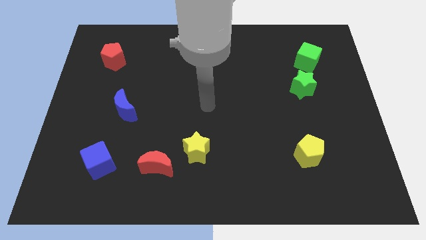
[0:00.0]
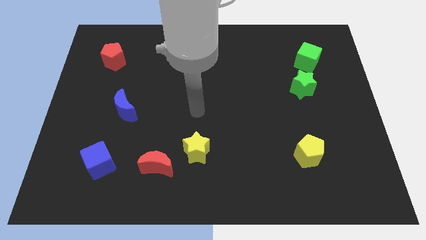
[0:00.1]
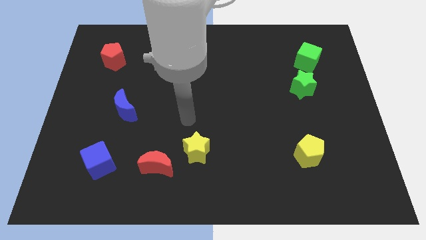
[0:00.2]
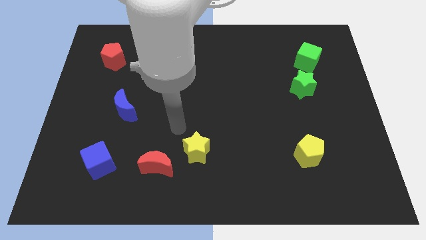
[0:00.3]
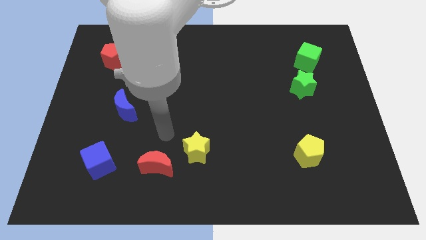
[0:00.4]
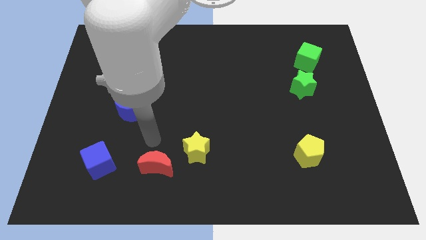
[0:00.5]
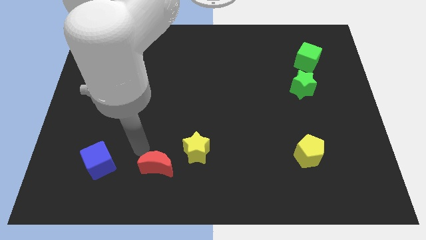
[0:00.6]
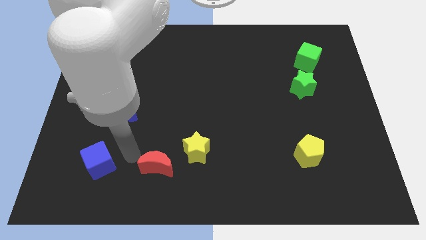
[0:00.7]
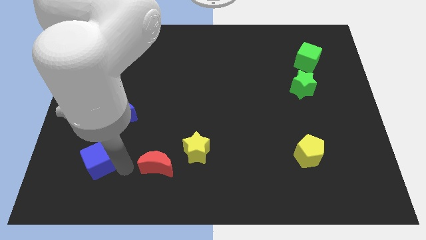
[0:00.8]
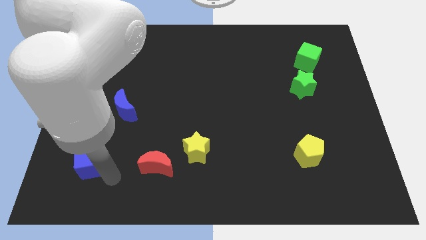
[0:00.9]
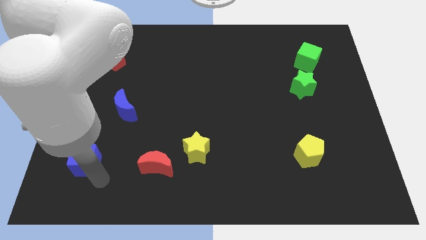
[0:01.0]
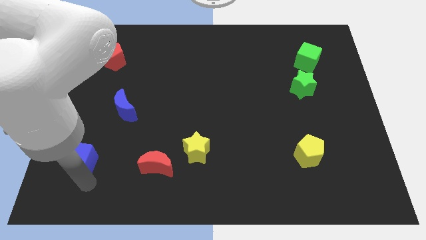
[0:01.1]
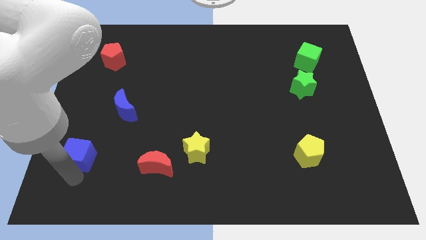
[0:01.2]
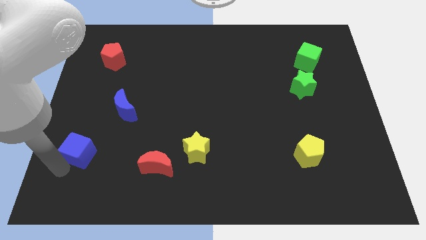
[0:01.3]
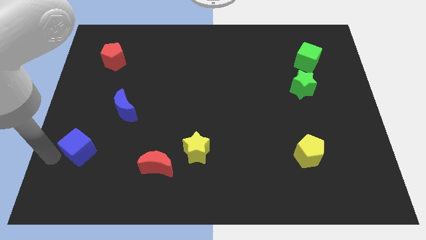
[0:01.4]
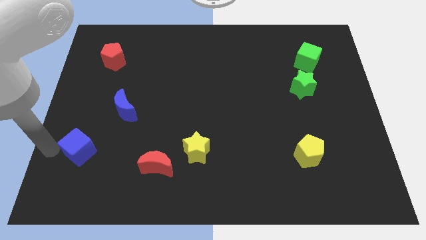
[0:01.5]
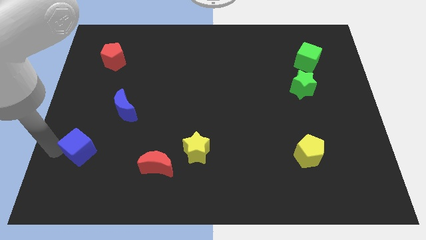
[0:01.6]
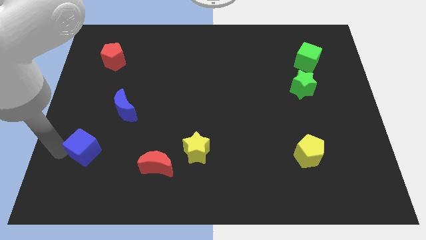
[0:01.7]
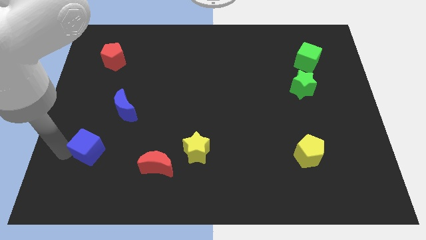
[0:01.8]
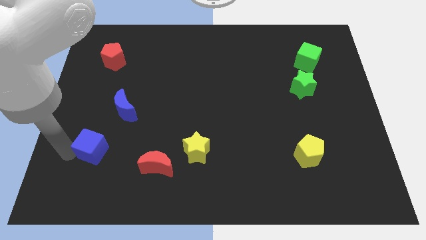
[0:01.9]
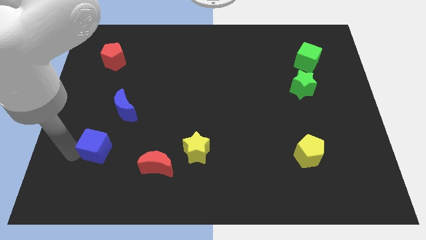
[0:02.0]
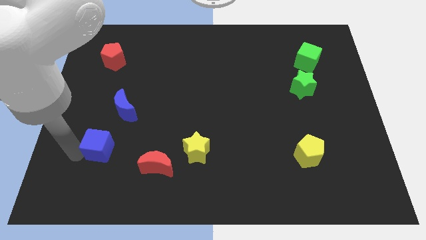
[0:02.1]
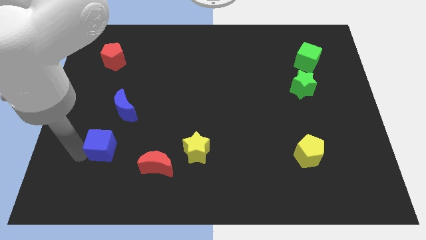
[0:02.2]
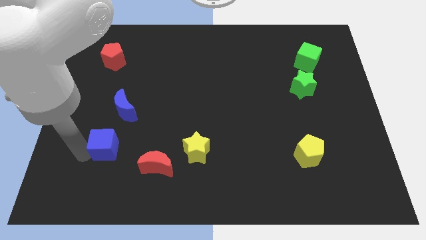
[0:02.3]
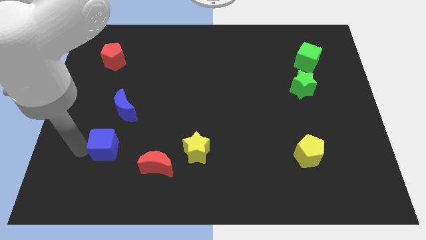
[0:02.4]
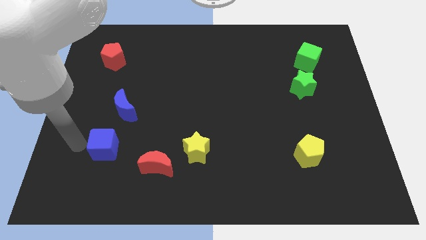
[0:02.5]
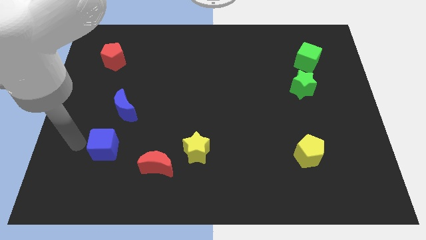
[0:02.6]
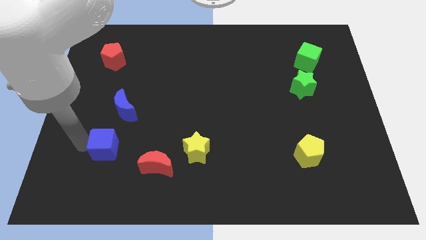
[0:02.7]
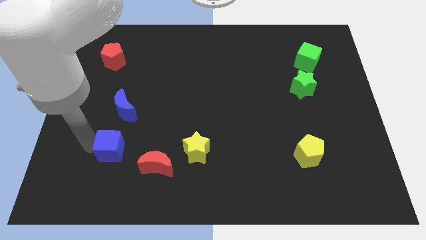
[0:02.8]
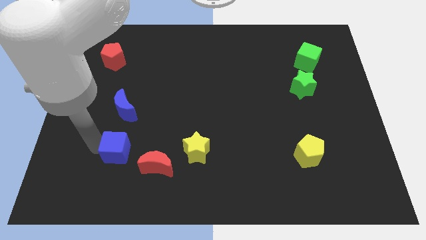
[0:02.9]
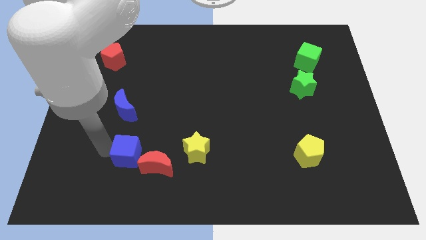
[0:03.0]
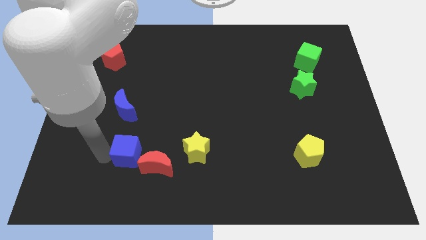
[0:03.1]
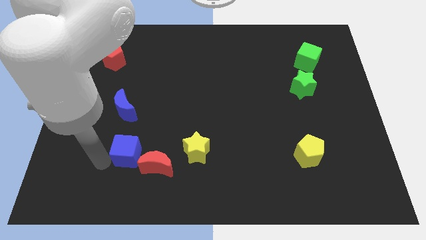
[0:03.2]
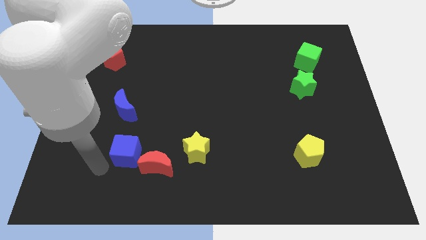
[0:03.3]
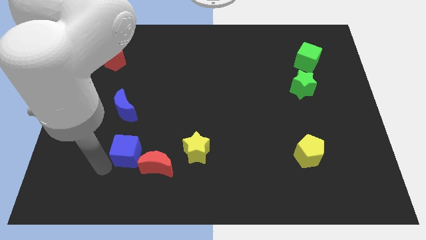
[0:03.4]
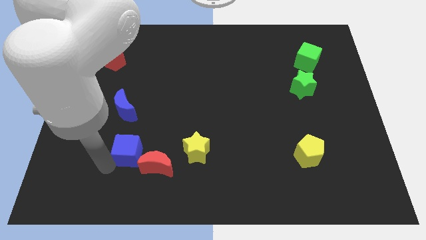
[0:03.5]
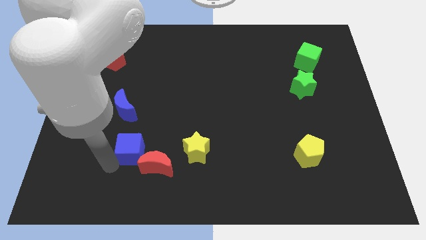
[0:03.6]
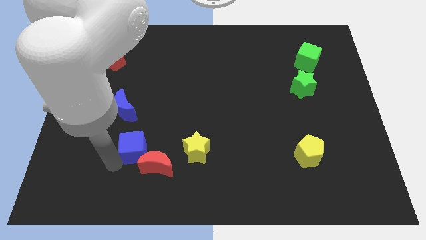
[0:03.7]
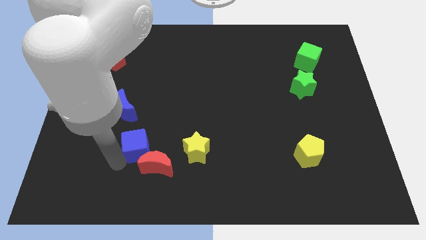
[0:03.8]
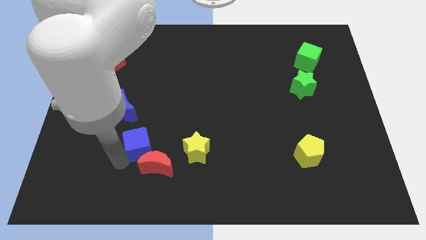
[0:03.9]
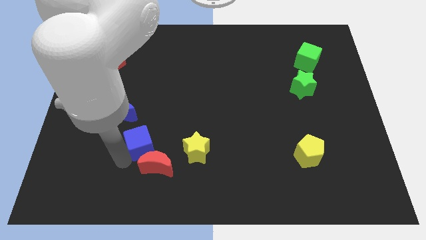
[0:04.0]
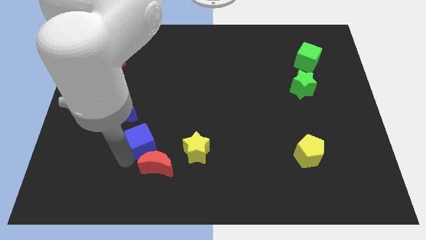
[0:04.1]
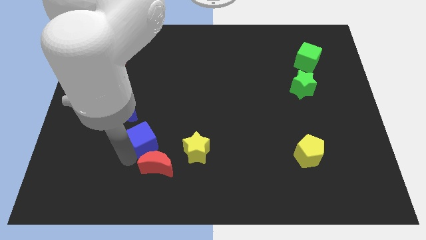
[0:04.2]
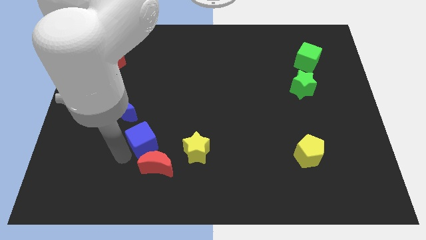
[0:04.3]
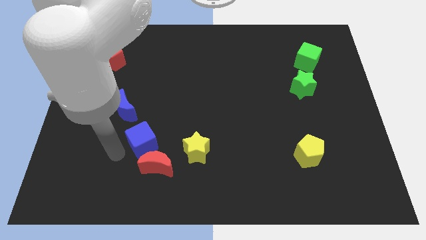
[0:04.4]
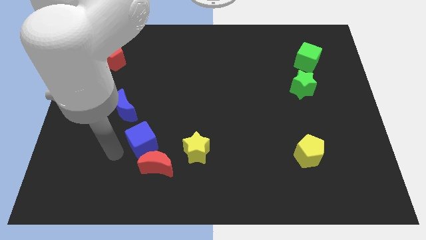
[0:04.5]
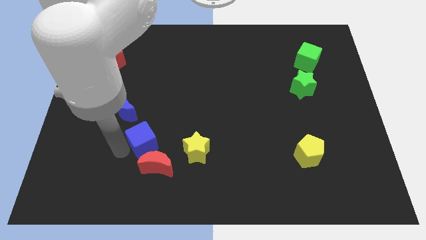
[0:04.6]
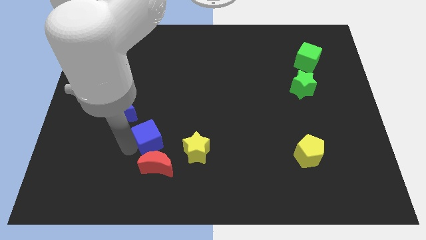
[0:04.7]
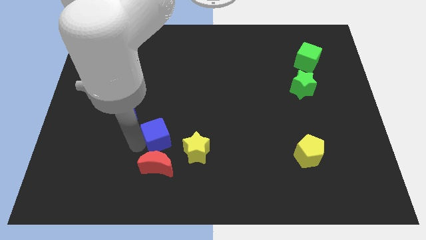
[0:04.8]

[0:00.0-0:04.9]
slide the blue cube to the top left side of the yellow star

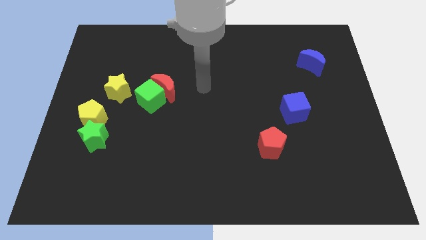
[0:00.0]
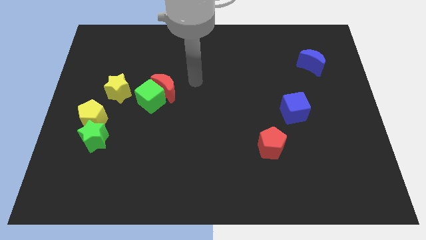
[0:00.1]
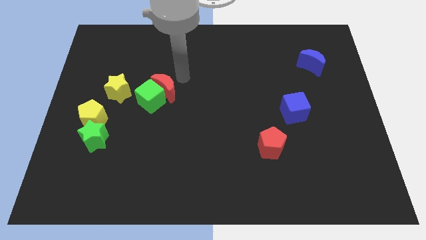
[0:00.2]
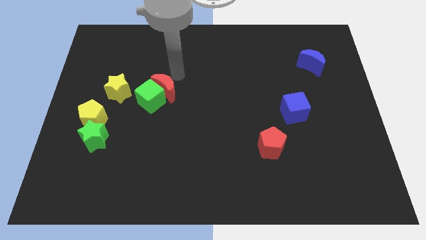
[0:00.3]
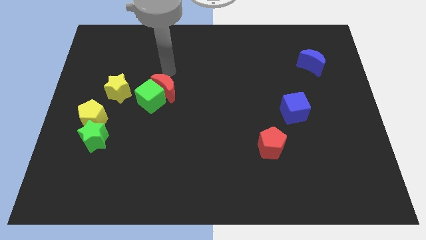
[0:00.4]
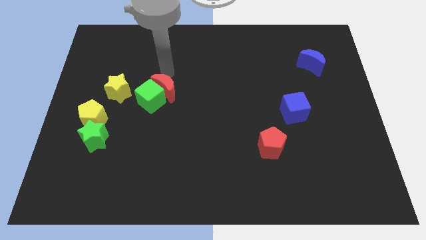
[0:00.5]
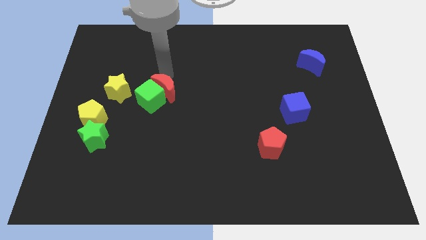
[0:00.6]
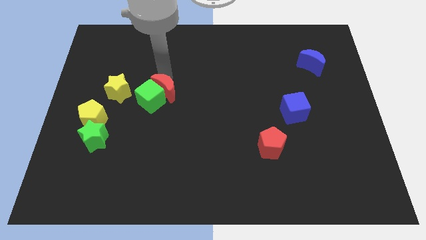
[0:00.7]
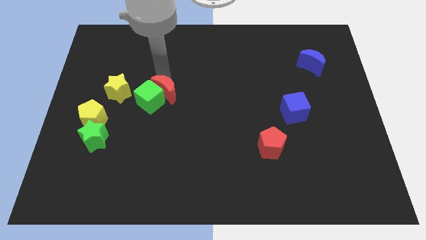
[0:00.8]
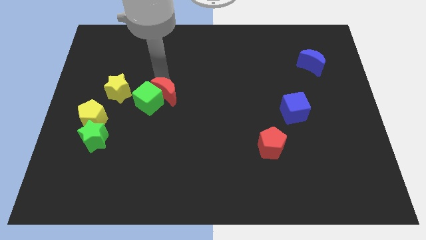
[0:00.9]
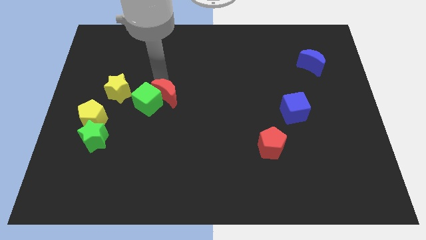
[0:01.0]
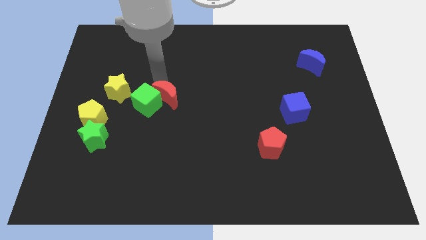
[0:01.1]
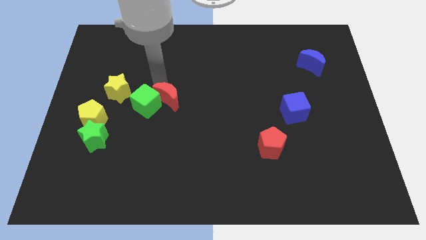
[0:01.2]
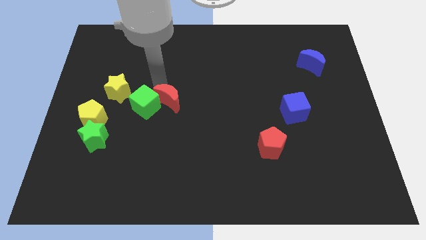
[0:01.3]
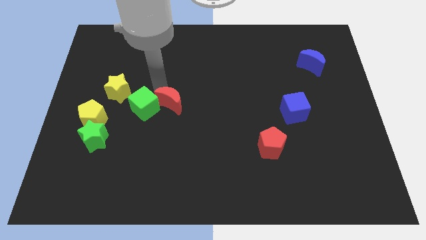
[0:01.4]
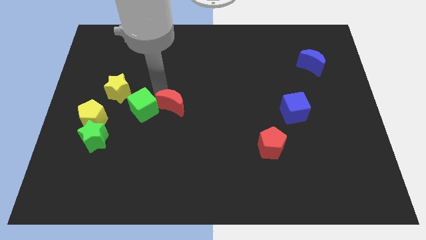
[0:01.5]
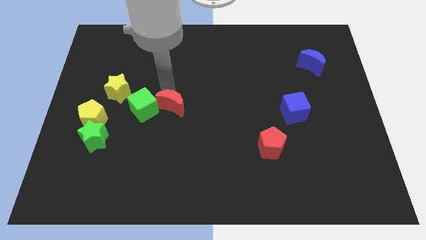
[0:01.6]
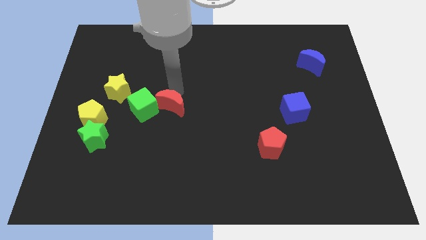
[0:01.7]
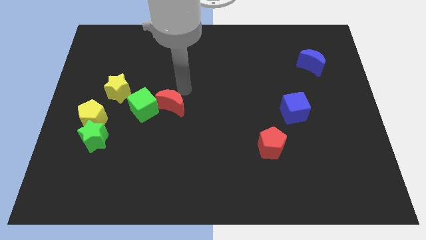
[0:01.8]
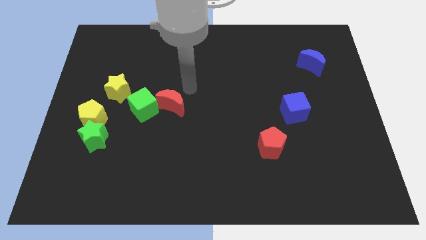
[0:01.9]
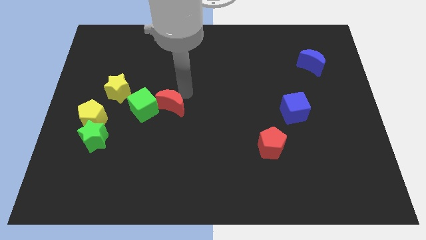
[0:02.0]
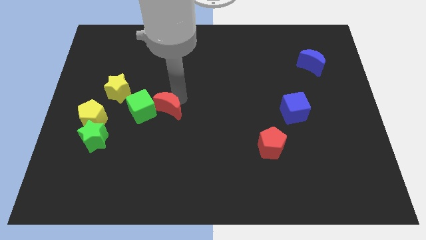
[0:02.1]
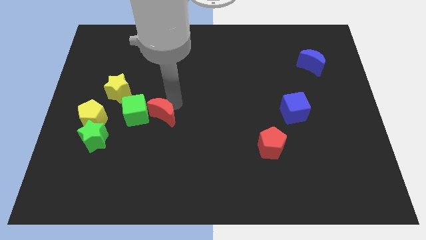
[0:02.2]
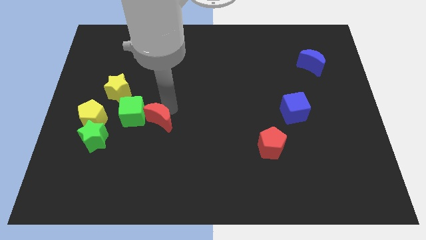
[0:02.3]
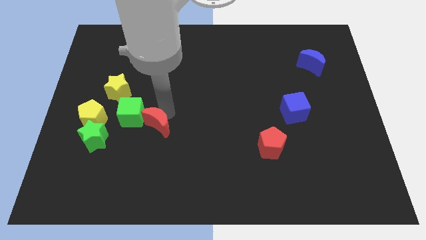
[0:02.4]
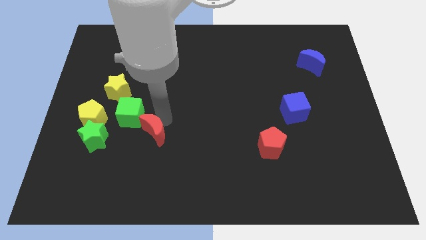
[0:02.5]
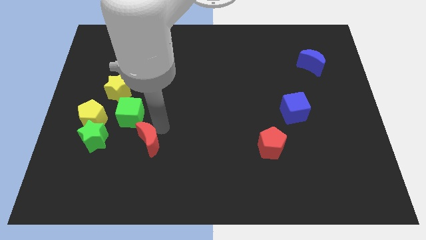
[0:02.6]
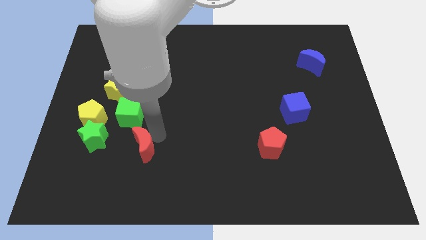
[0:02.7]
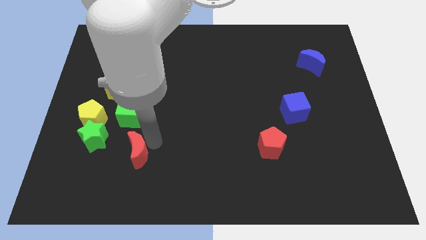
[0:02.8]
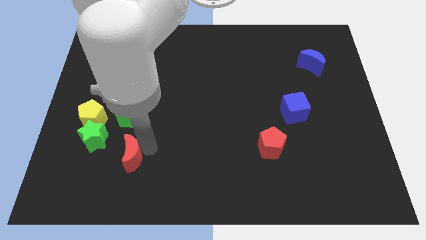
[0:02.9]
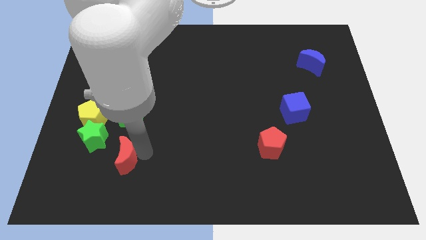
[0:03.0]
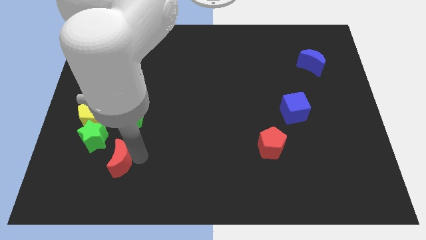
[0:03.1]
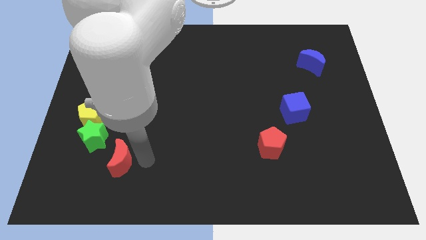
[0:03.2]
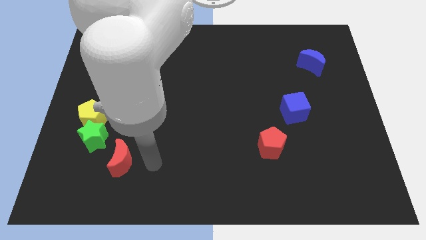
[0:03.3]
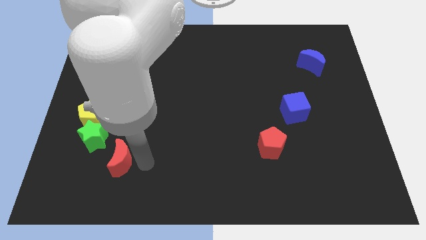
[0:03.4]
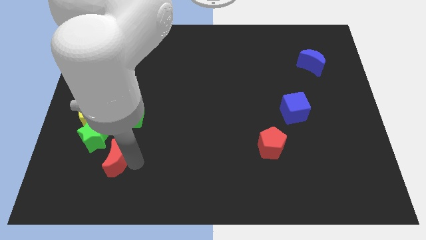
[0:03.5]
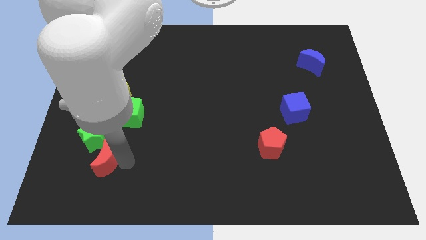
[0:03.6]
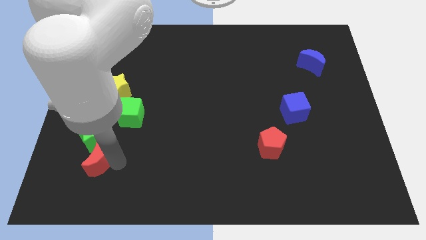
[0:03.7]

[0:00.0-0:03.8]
slide the red moon to the bottom side of the yellow pentagon
